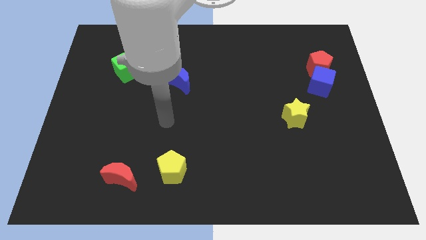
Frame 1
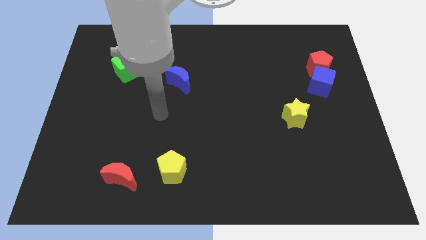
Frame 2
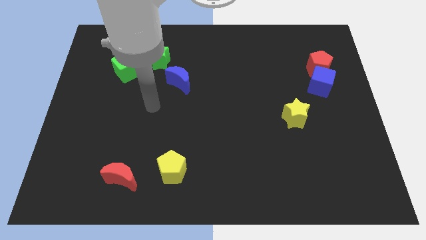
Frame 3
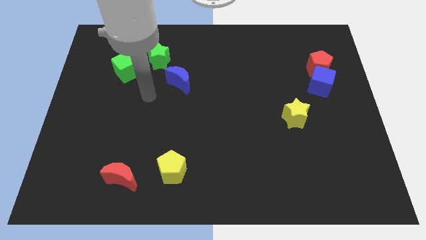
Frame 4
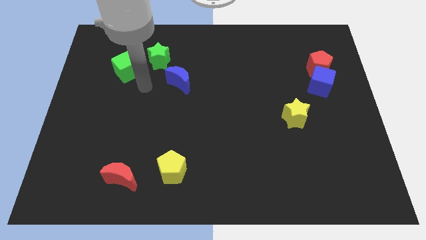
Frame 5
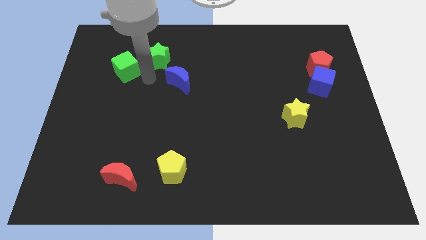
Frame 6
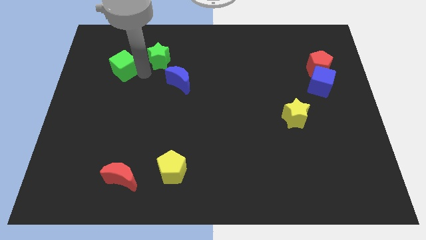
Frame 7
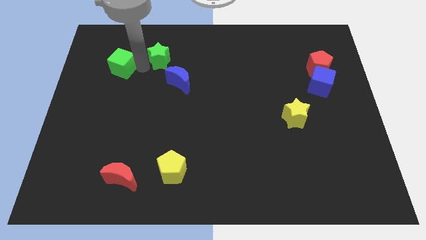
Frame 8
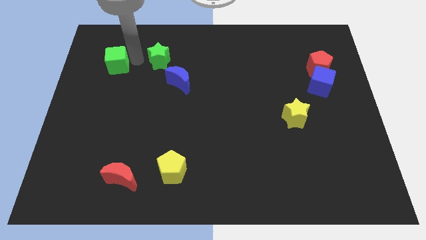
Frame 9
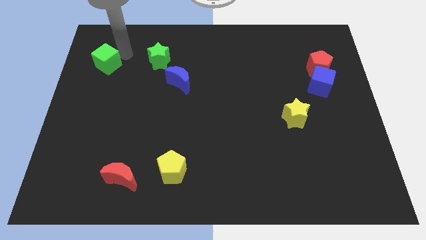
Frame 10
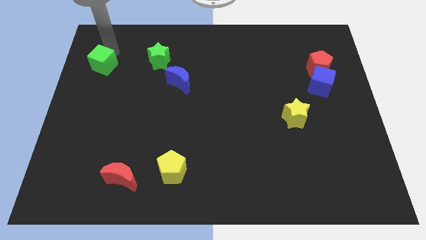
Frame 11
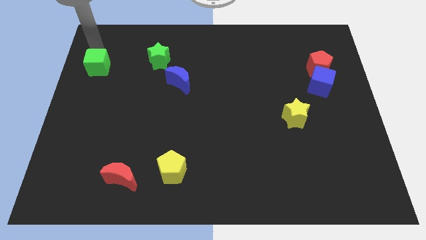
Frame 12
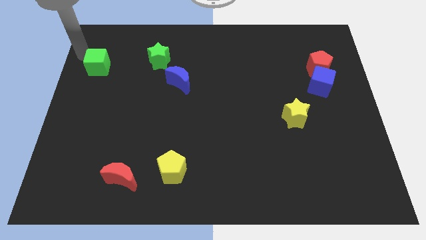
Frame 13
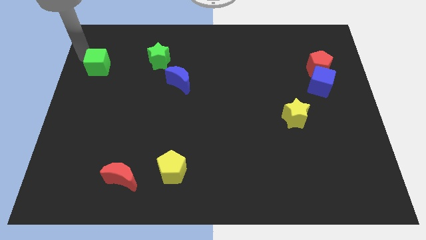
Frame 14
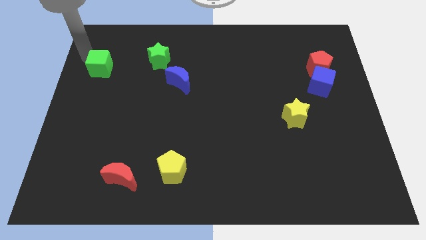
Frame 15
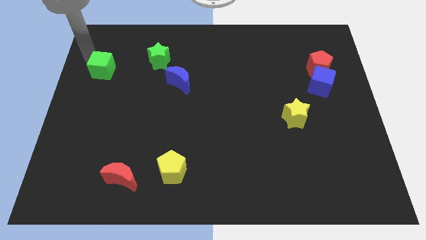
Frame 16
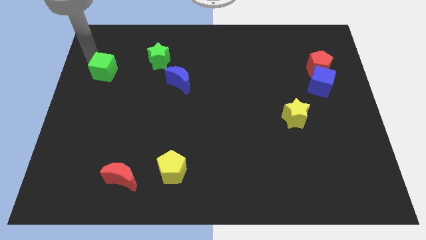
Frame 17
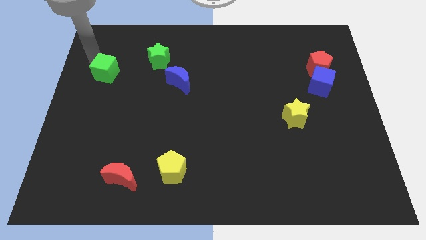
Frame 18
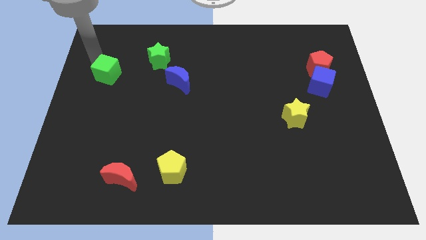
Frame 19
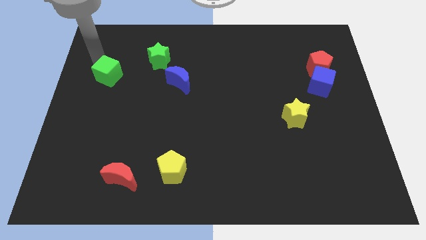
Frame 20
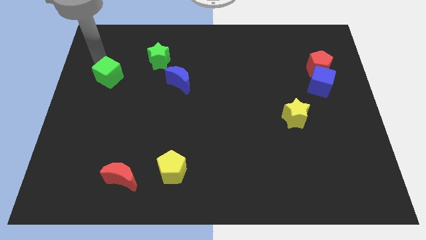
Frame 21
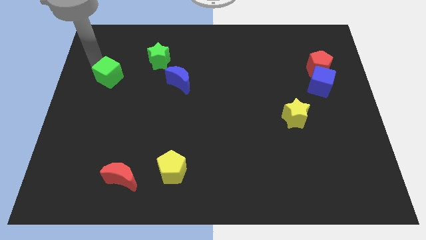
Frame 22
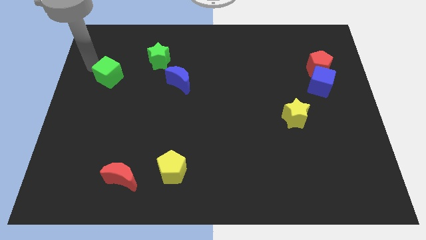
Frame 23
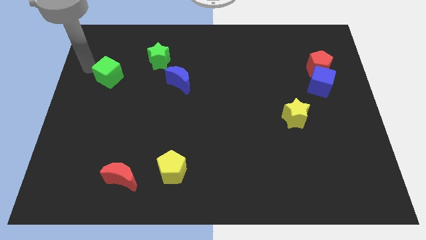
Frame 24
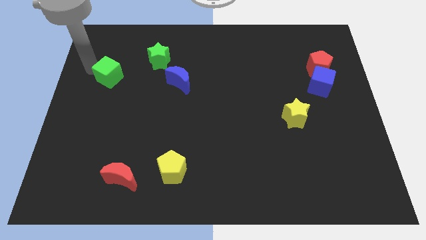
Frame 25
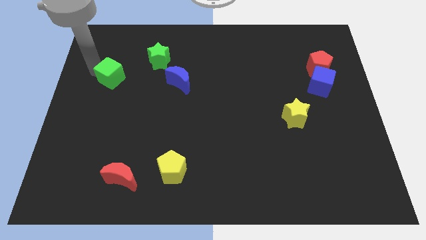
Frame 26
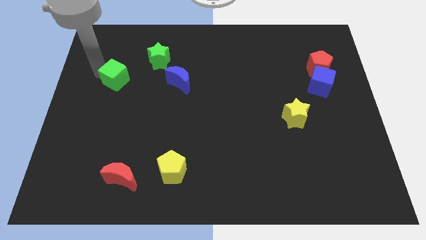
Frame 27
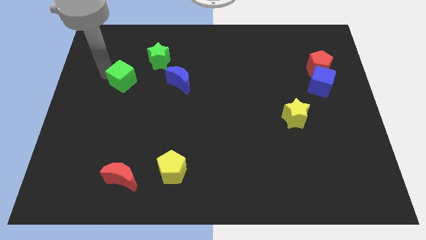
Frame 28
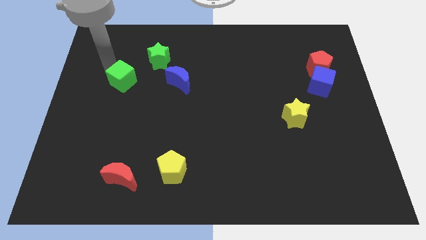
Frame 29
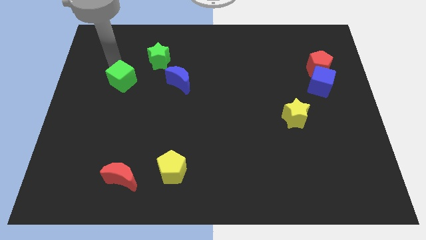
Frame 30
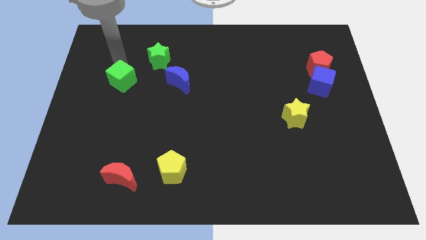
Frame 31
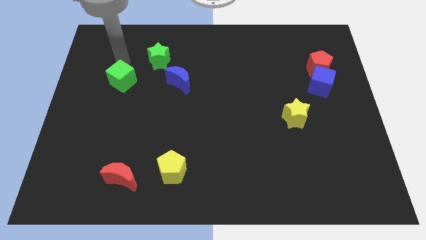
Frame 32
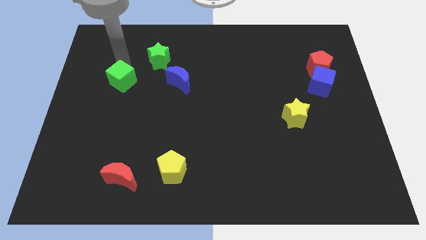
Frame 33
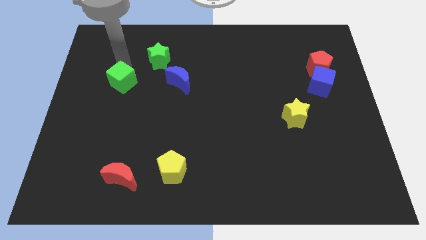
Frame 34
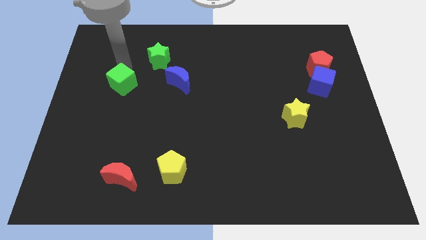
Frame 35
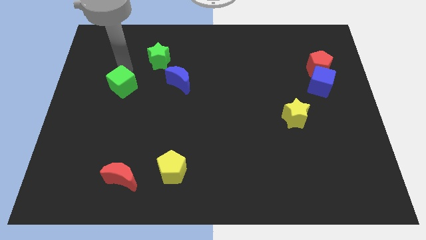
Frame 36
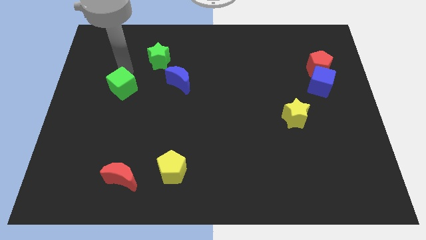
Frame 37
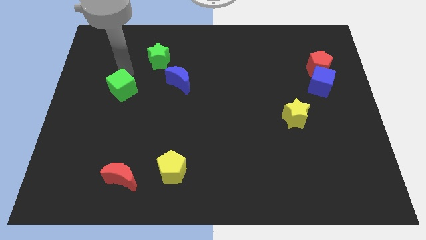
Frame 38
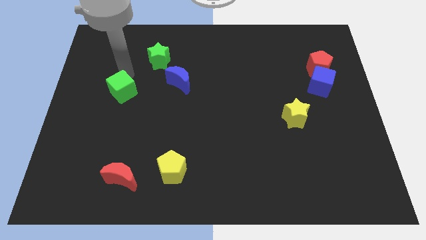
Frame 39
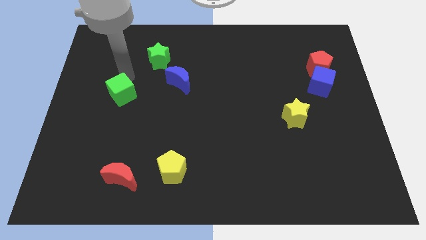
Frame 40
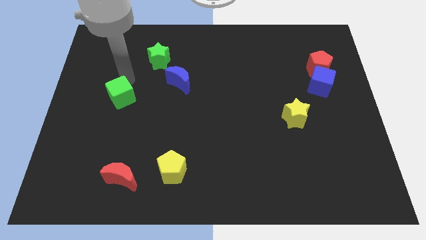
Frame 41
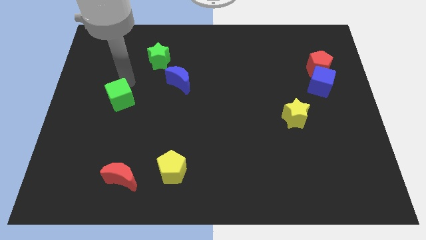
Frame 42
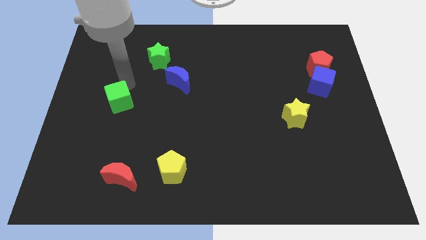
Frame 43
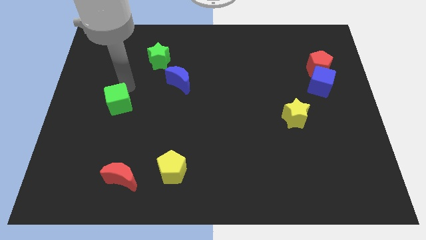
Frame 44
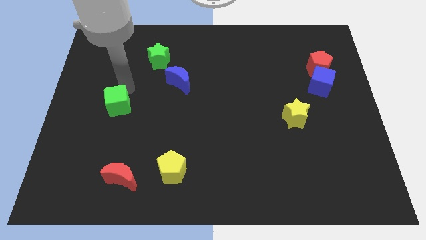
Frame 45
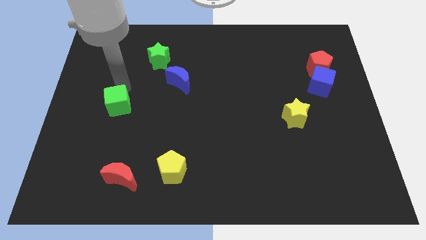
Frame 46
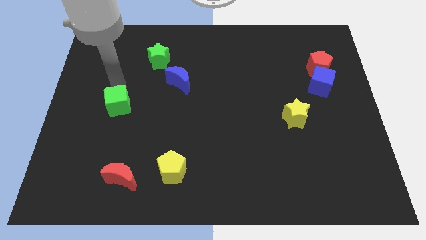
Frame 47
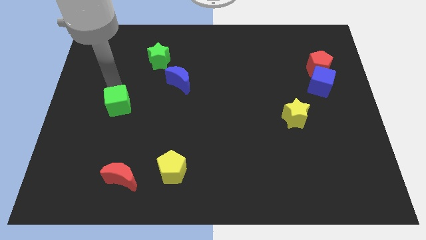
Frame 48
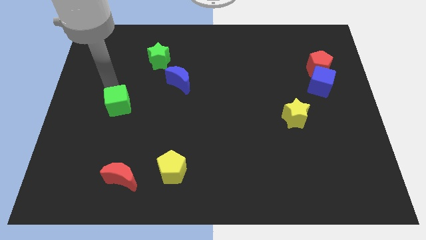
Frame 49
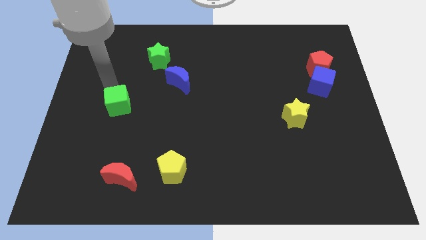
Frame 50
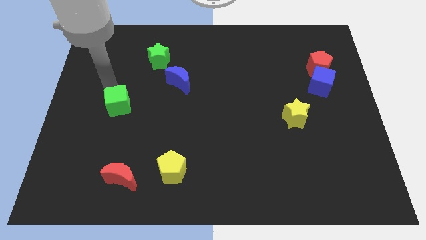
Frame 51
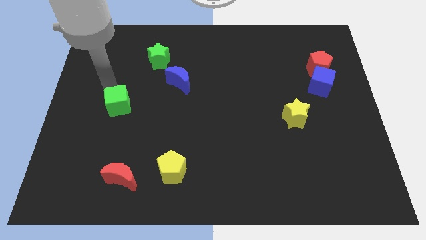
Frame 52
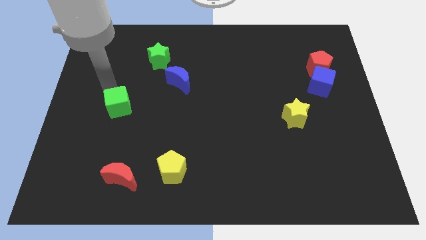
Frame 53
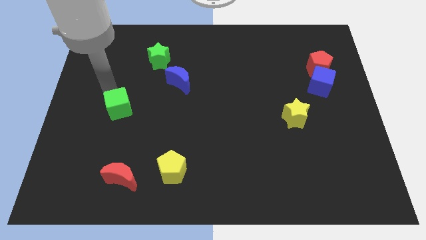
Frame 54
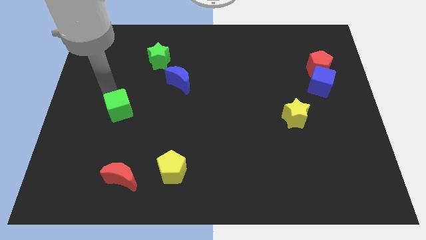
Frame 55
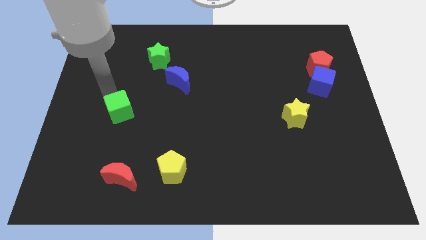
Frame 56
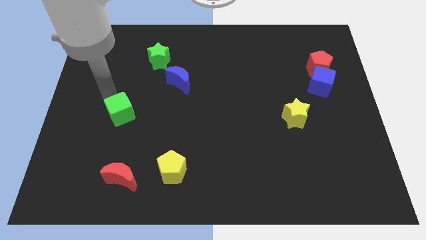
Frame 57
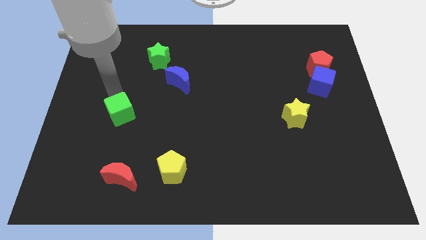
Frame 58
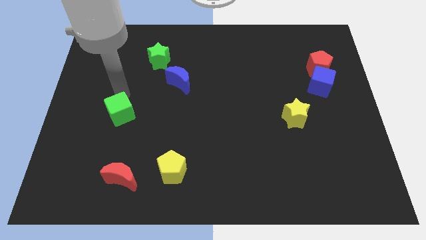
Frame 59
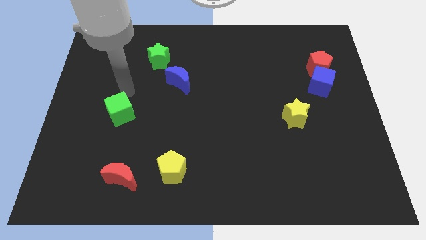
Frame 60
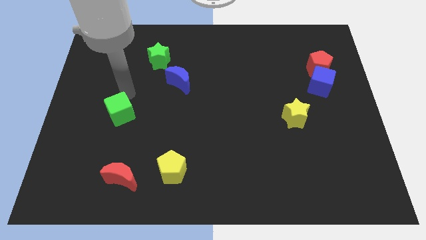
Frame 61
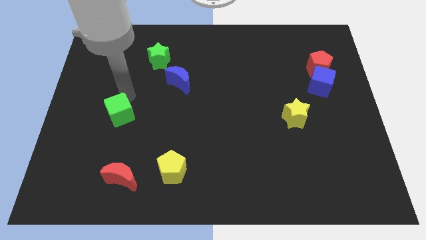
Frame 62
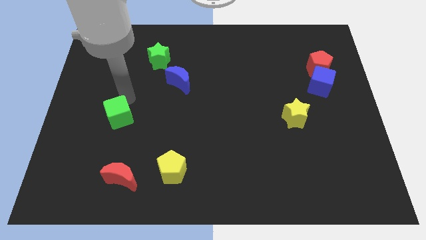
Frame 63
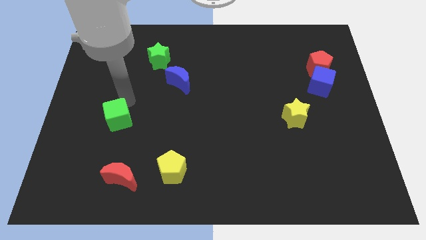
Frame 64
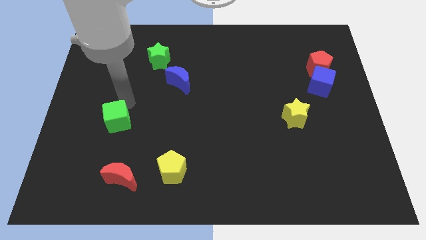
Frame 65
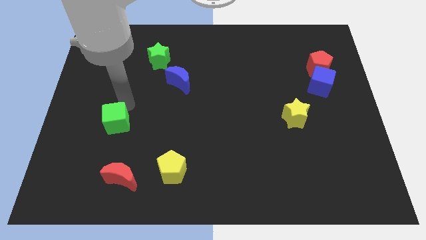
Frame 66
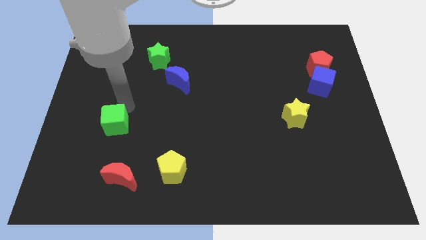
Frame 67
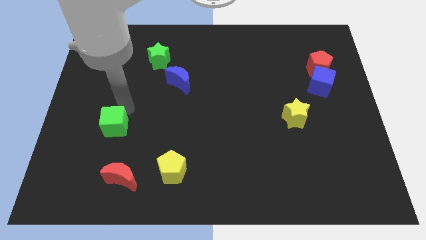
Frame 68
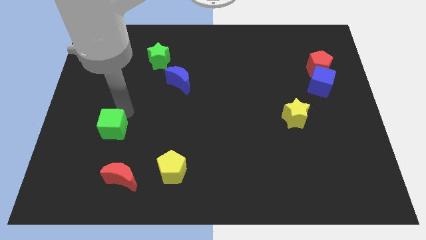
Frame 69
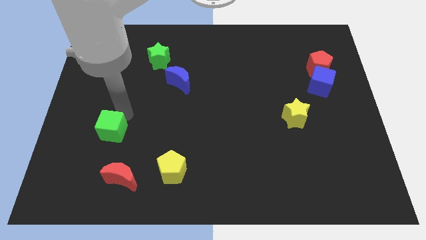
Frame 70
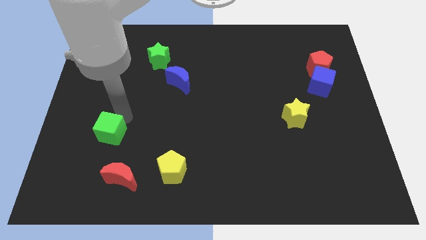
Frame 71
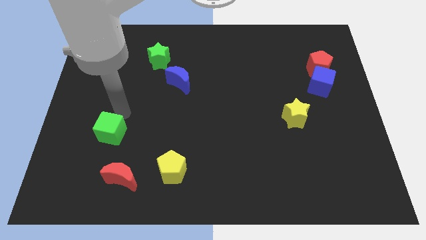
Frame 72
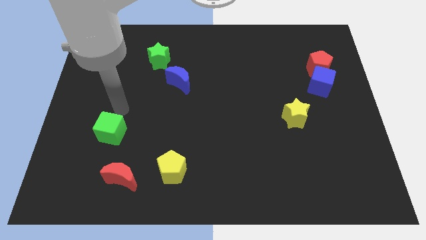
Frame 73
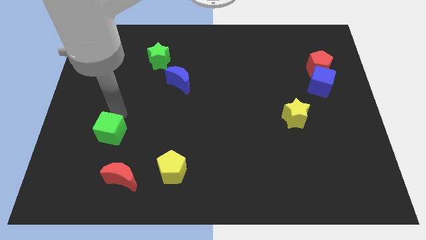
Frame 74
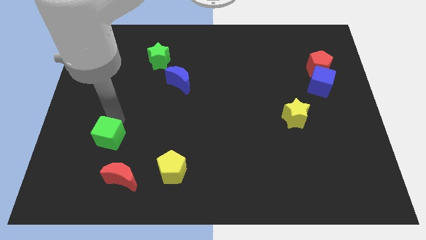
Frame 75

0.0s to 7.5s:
put the green cube to the top left side of the red moon

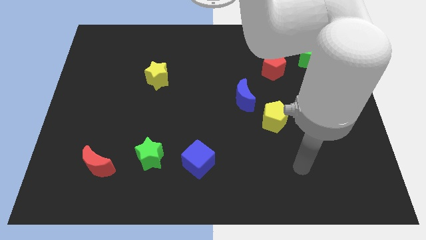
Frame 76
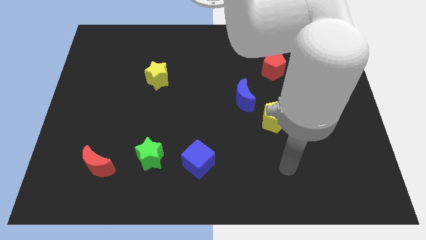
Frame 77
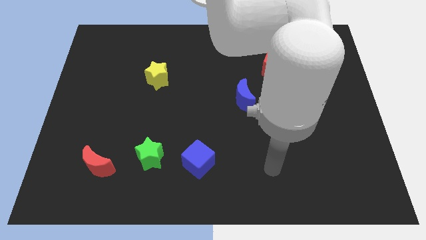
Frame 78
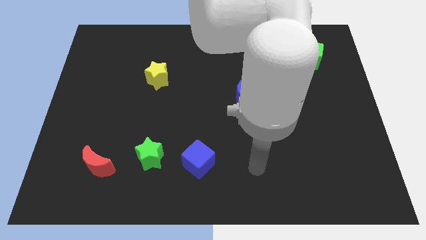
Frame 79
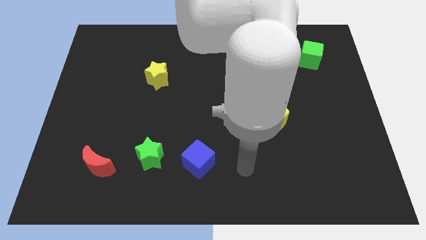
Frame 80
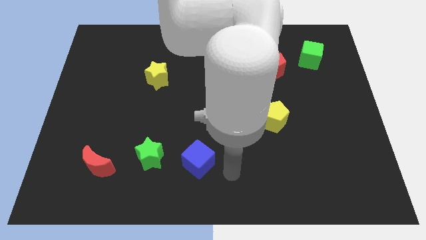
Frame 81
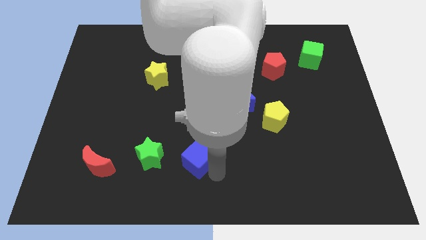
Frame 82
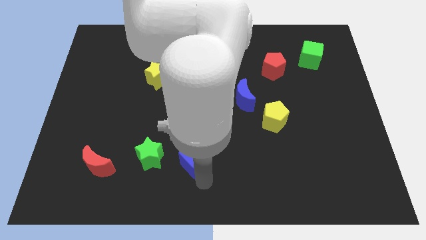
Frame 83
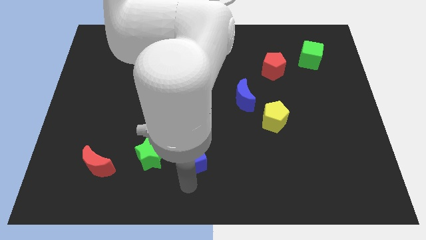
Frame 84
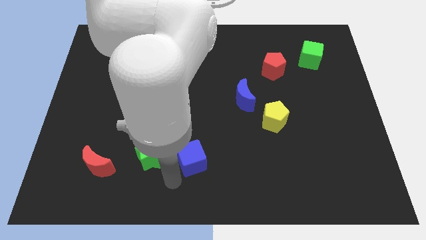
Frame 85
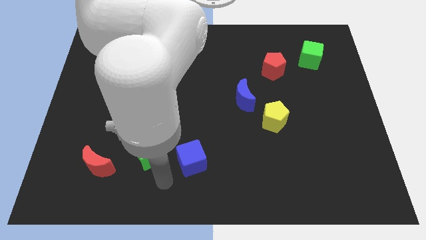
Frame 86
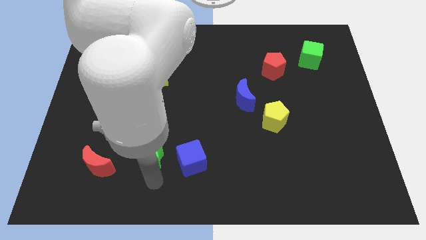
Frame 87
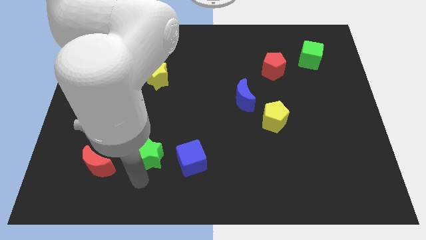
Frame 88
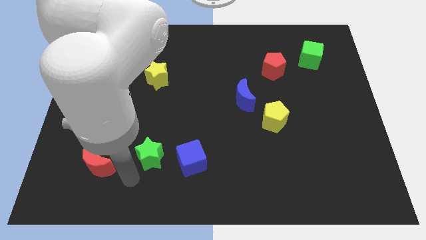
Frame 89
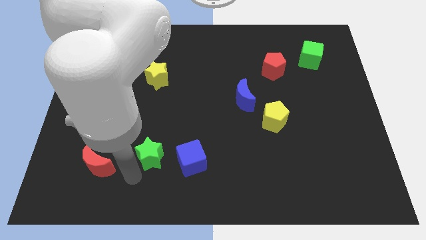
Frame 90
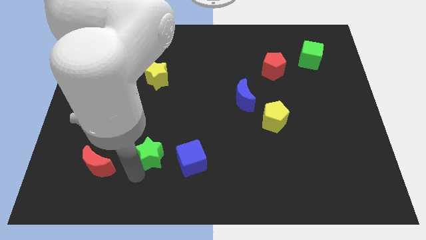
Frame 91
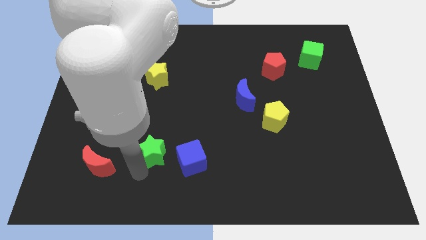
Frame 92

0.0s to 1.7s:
put the green star to the top left side of the blue cube
